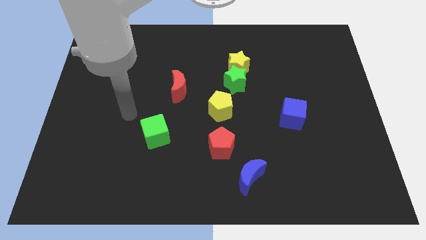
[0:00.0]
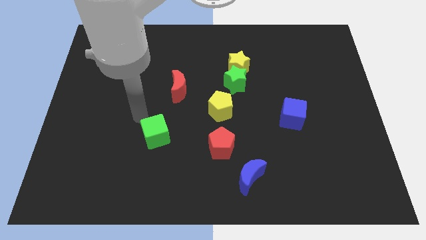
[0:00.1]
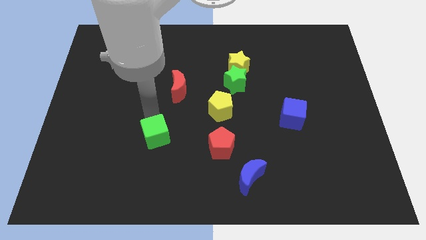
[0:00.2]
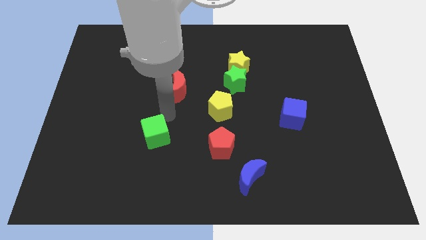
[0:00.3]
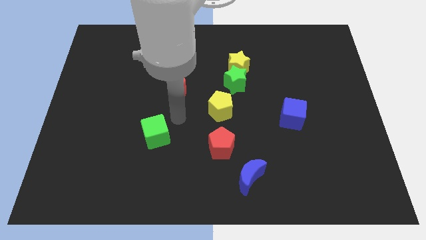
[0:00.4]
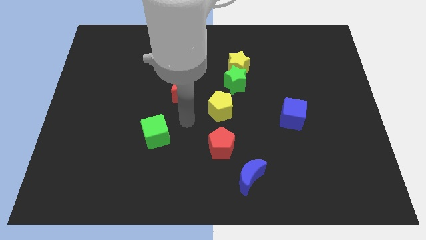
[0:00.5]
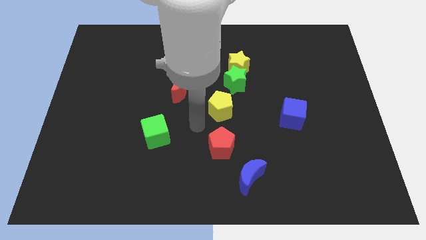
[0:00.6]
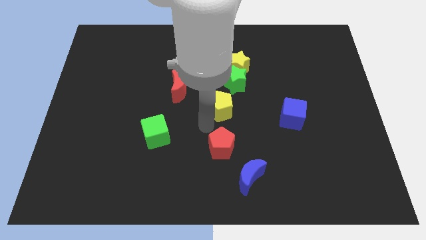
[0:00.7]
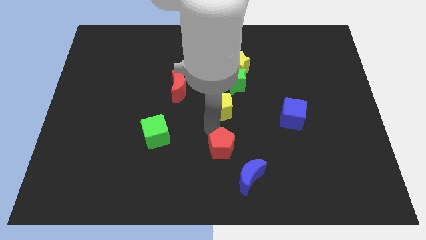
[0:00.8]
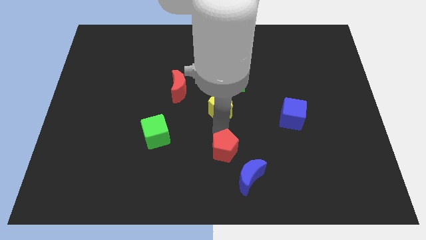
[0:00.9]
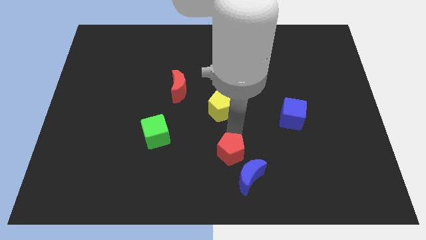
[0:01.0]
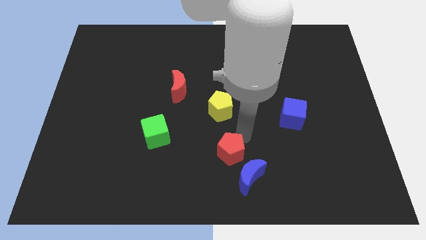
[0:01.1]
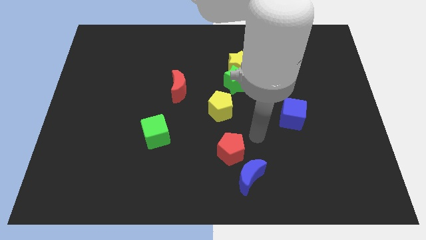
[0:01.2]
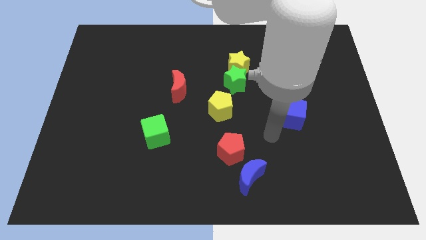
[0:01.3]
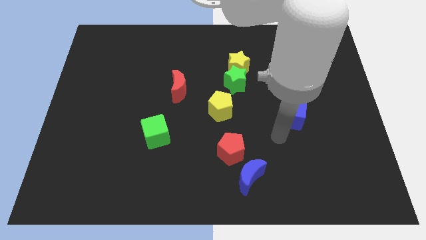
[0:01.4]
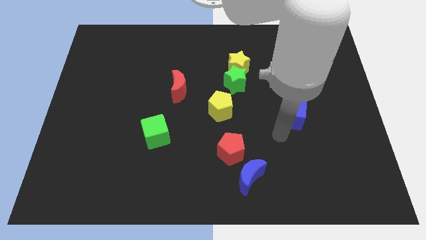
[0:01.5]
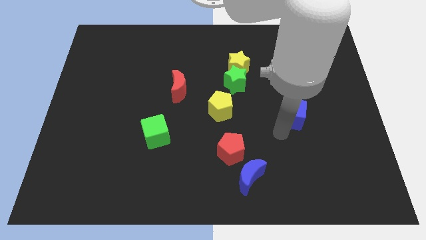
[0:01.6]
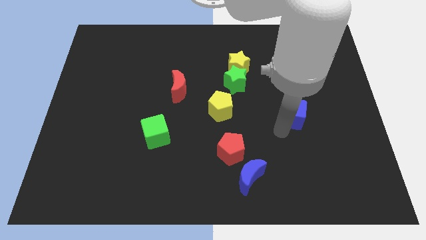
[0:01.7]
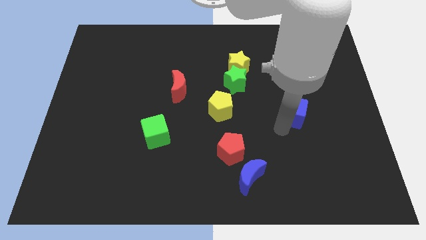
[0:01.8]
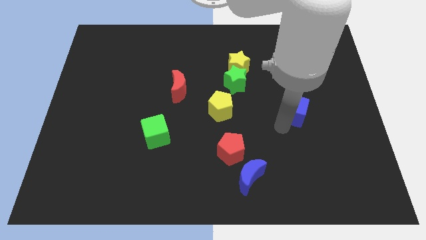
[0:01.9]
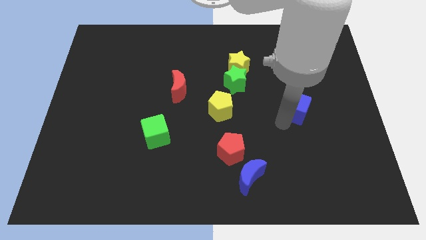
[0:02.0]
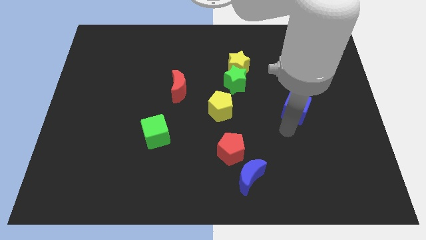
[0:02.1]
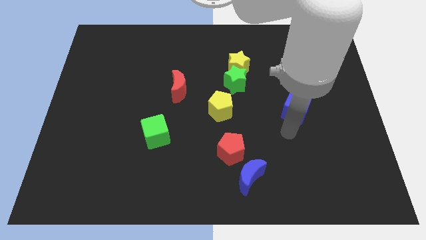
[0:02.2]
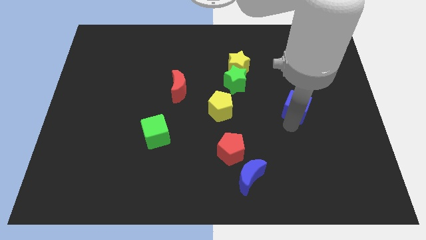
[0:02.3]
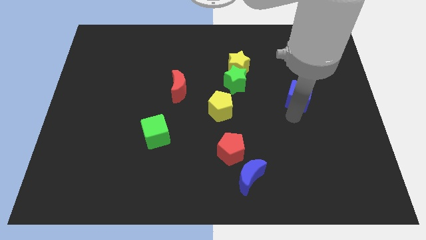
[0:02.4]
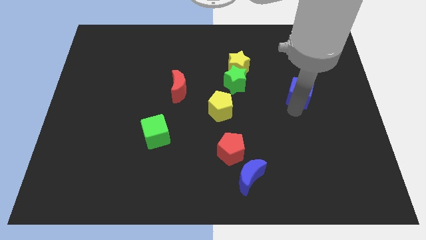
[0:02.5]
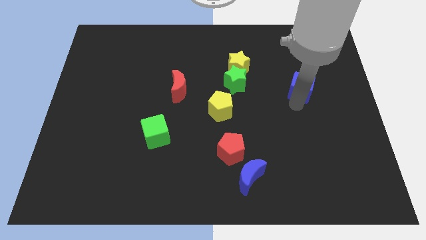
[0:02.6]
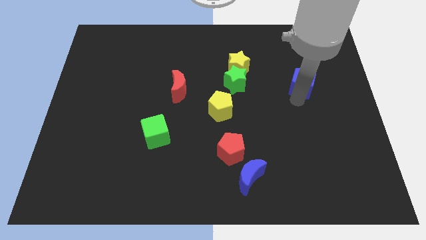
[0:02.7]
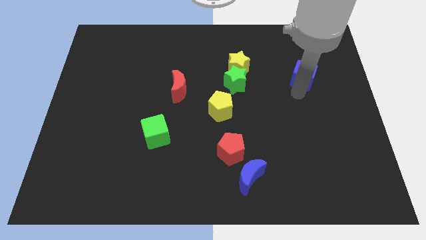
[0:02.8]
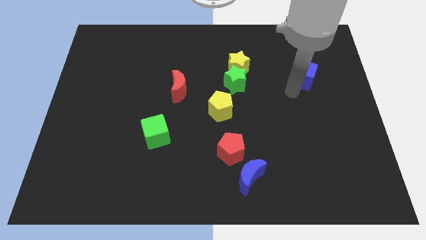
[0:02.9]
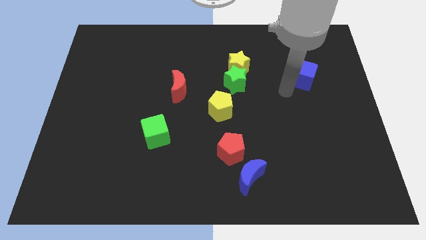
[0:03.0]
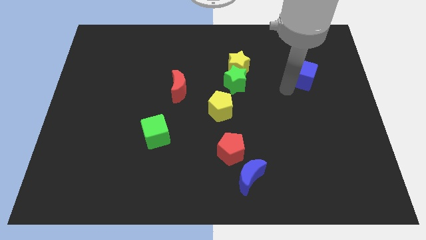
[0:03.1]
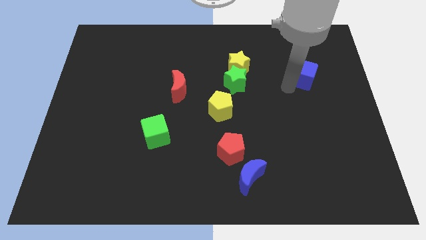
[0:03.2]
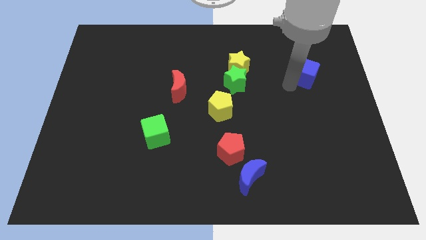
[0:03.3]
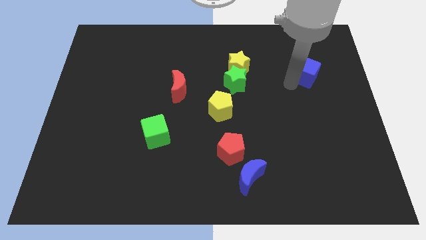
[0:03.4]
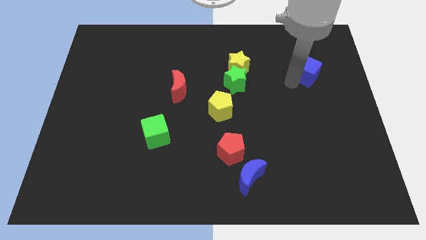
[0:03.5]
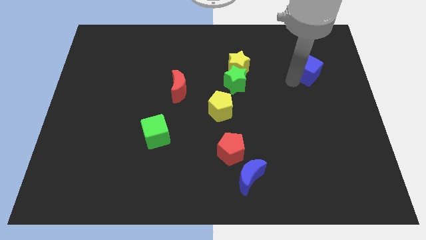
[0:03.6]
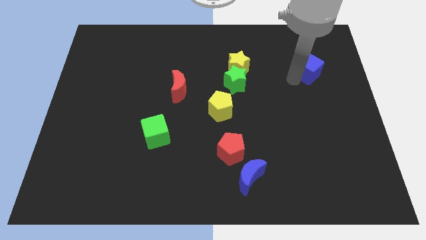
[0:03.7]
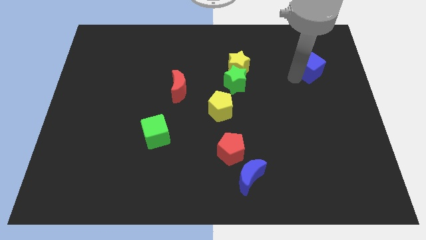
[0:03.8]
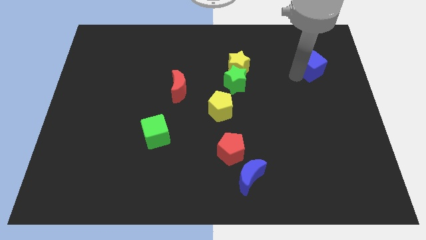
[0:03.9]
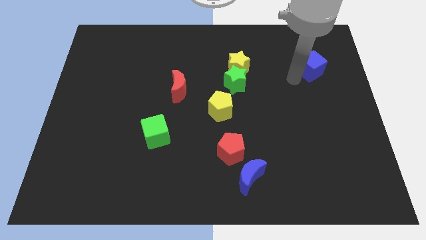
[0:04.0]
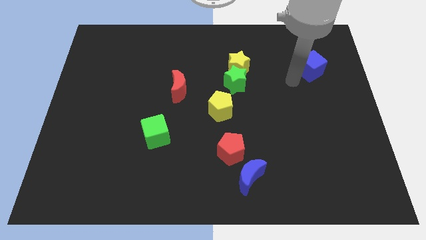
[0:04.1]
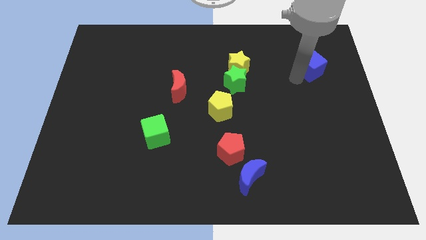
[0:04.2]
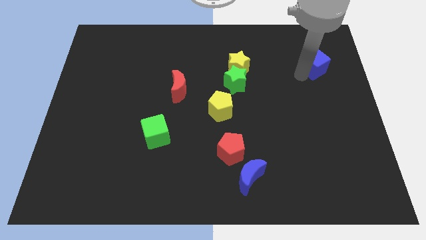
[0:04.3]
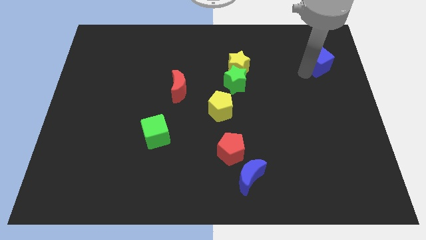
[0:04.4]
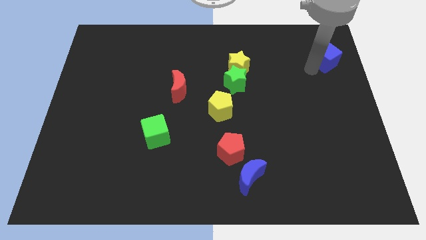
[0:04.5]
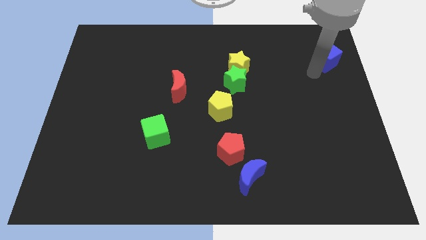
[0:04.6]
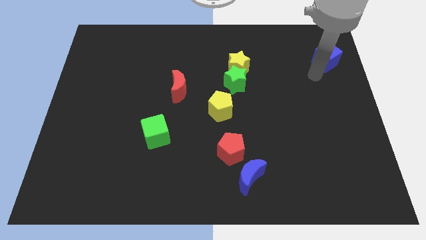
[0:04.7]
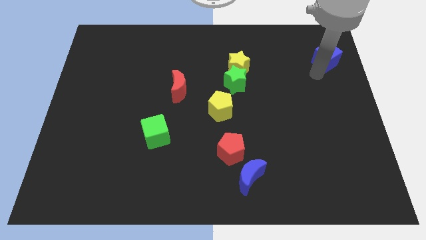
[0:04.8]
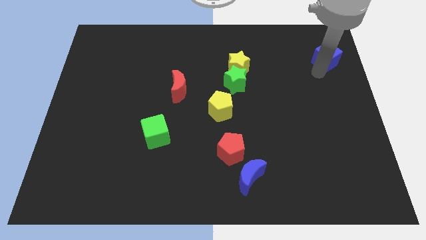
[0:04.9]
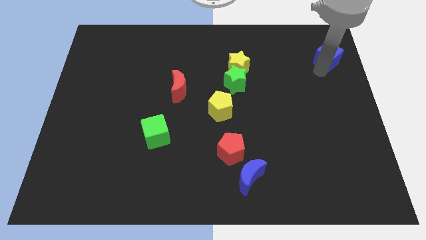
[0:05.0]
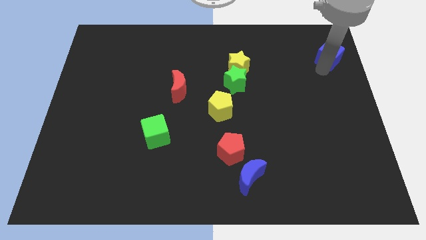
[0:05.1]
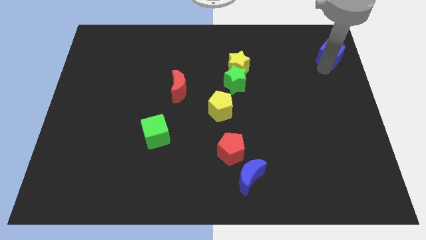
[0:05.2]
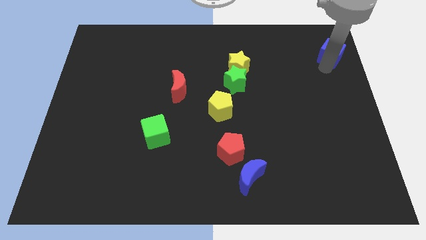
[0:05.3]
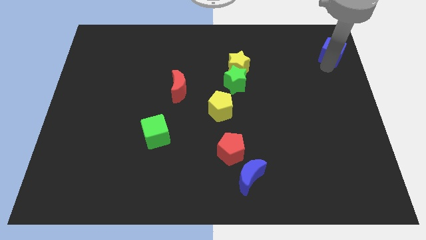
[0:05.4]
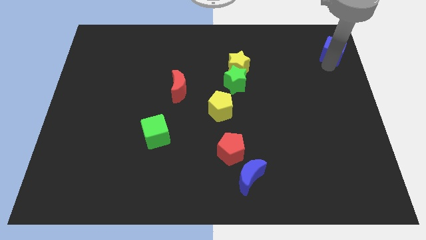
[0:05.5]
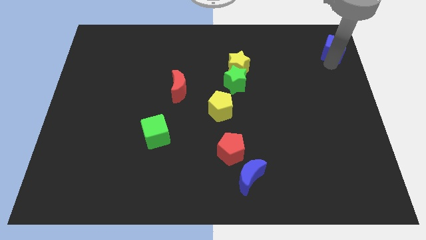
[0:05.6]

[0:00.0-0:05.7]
put the blue cube to the upper right corner
